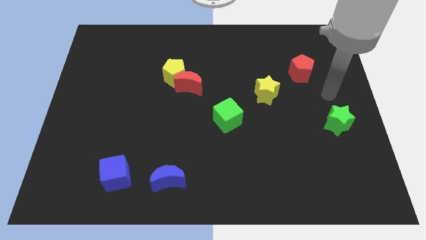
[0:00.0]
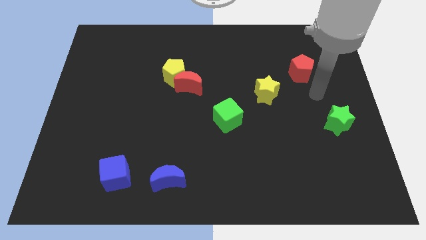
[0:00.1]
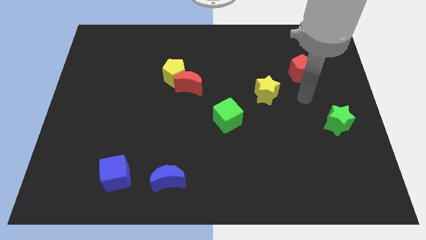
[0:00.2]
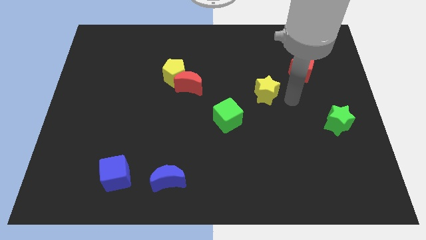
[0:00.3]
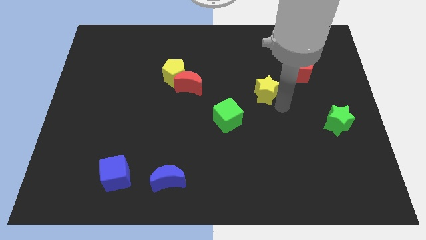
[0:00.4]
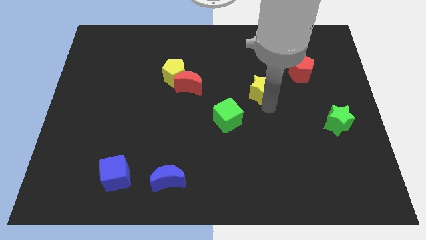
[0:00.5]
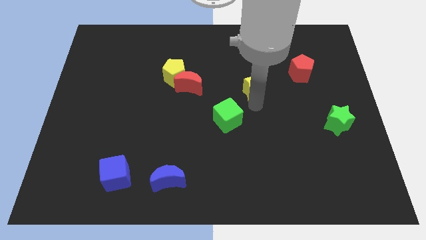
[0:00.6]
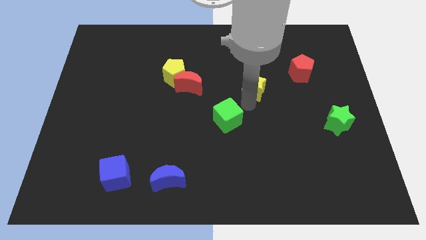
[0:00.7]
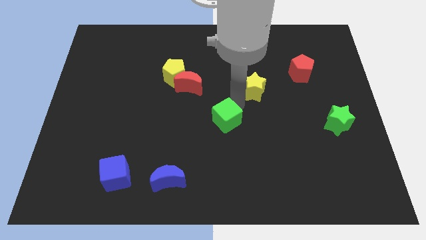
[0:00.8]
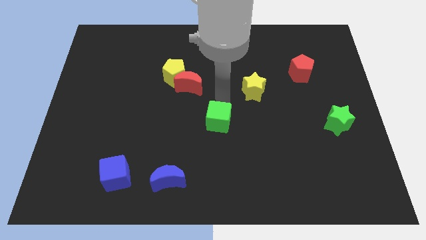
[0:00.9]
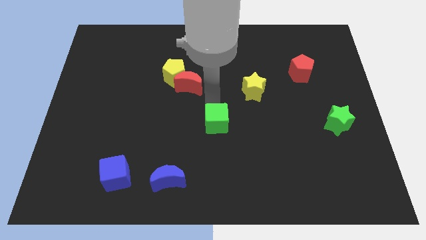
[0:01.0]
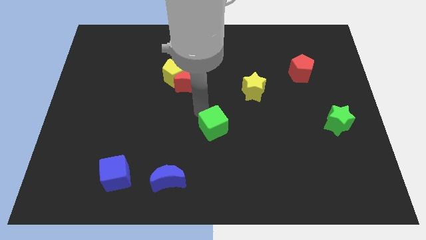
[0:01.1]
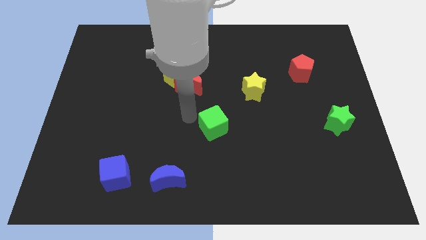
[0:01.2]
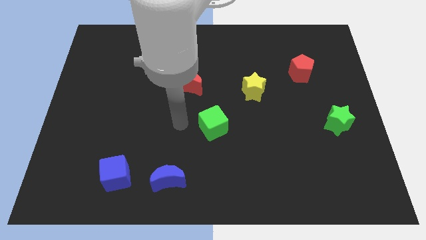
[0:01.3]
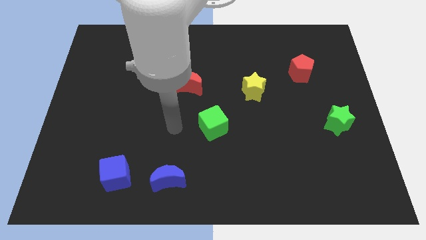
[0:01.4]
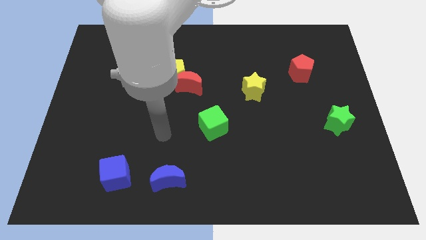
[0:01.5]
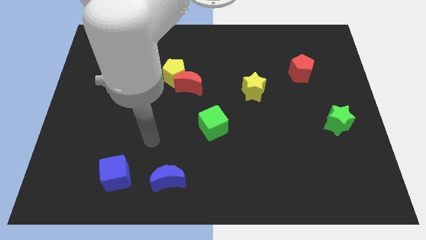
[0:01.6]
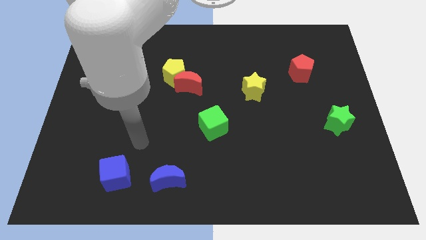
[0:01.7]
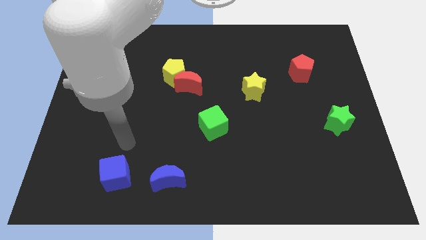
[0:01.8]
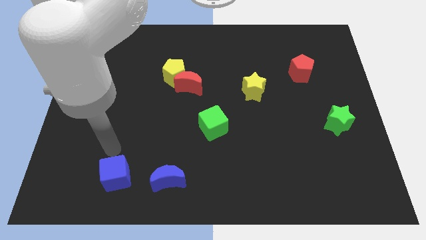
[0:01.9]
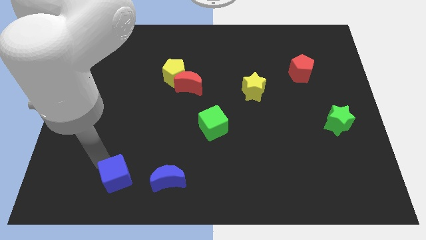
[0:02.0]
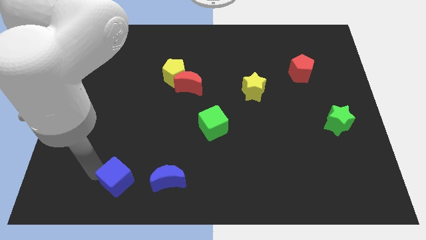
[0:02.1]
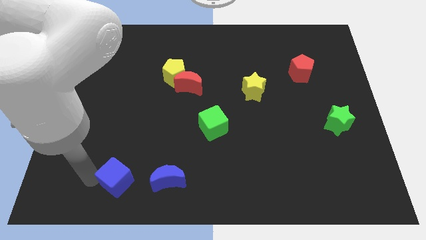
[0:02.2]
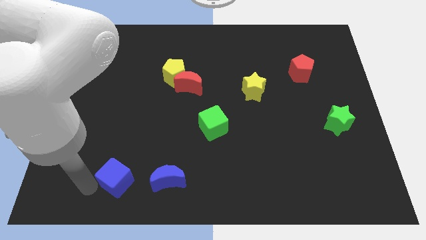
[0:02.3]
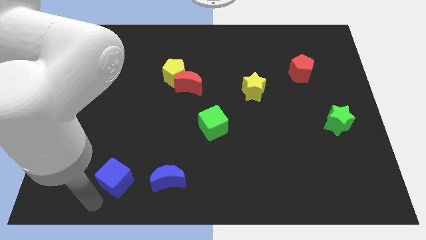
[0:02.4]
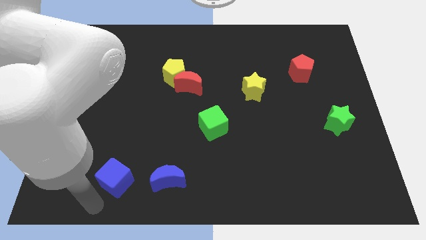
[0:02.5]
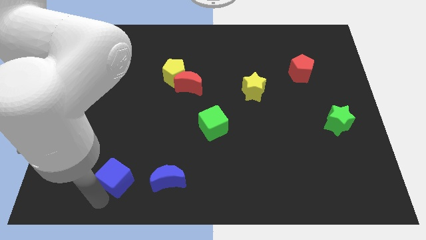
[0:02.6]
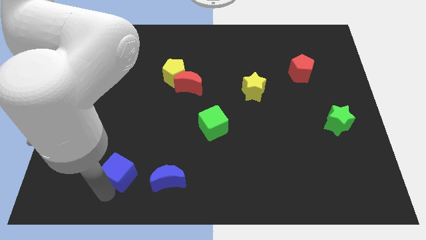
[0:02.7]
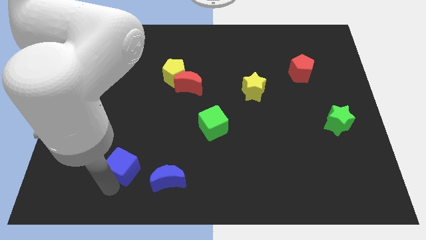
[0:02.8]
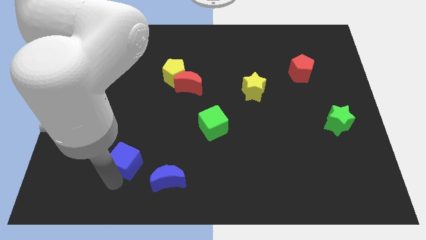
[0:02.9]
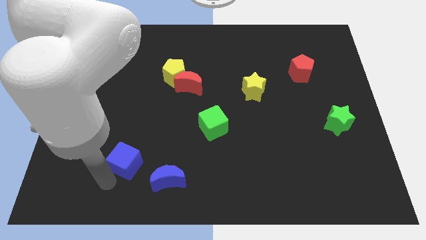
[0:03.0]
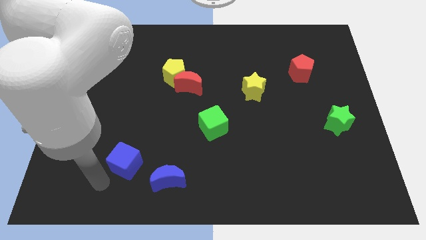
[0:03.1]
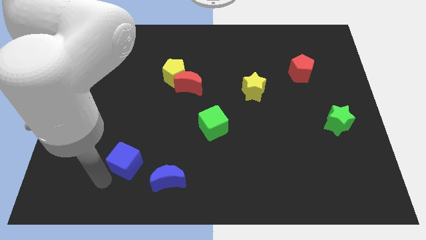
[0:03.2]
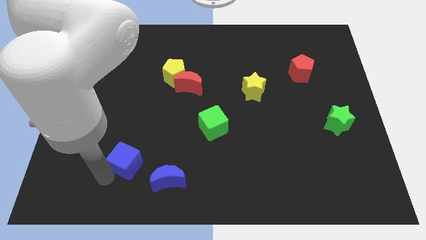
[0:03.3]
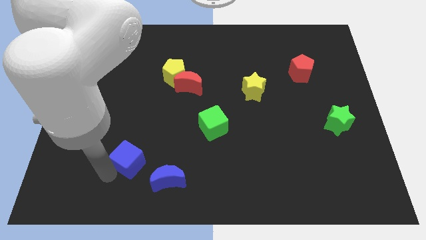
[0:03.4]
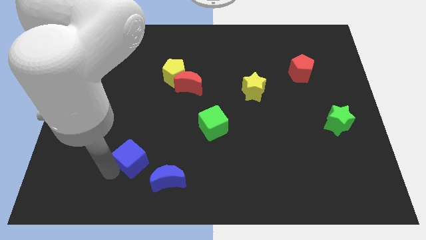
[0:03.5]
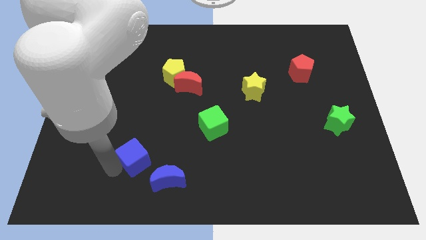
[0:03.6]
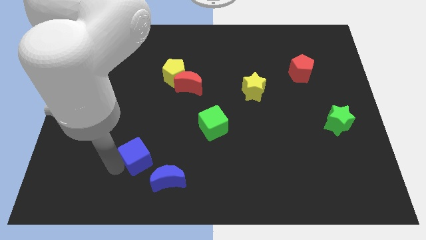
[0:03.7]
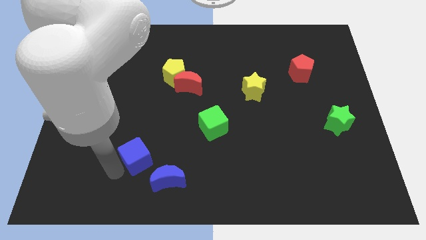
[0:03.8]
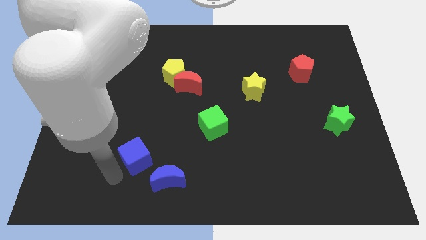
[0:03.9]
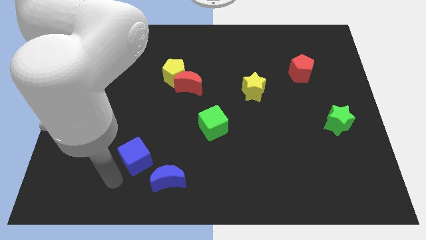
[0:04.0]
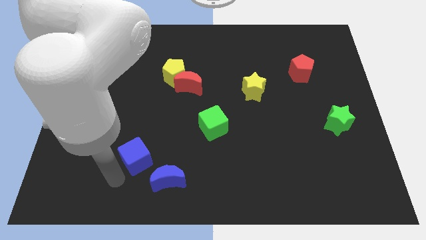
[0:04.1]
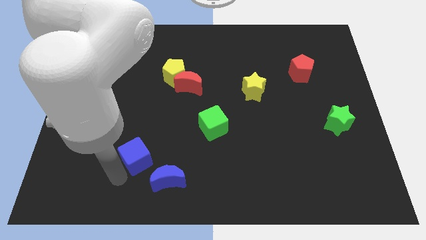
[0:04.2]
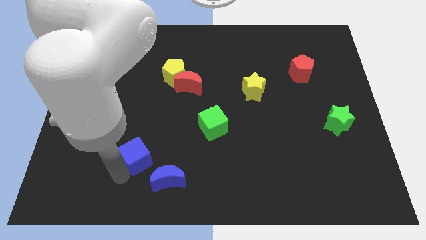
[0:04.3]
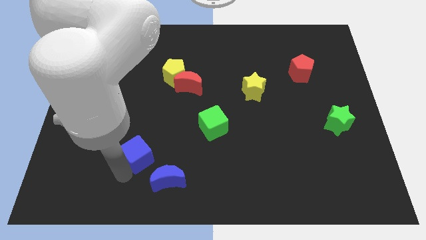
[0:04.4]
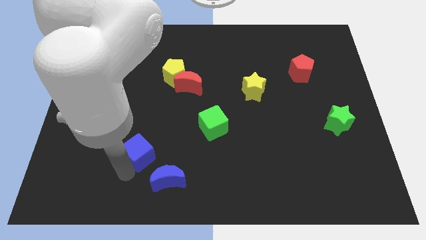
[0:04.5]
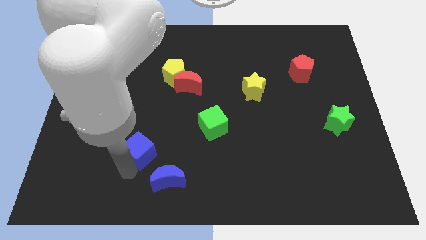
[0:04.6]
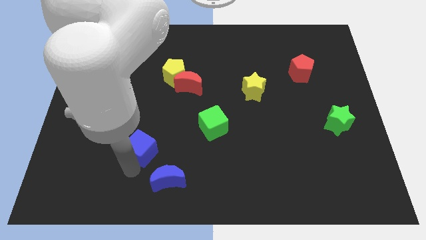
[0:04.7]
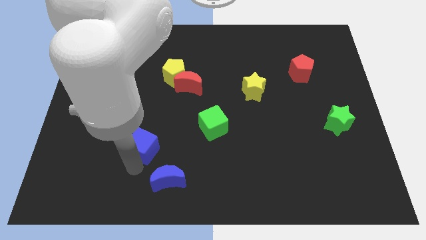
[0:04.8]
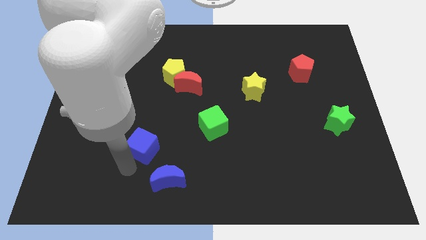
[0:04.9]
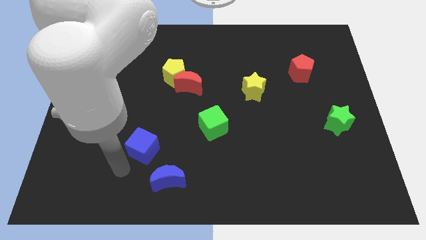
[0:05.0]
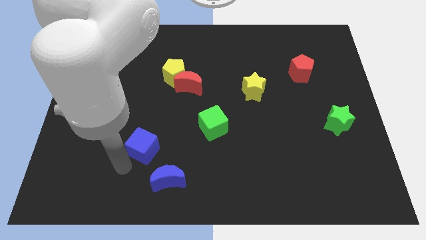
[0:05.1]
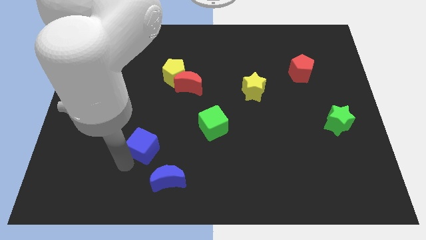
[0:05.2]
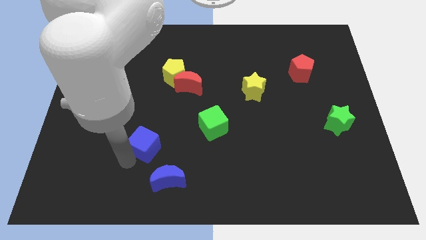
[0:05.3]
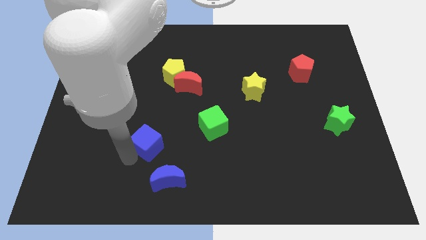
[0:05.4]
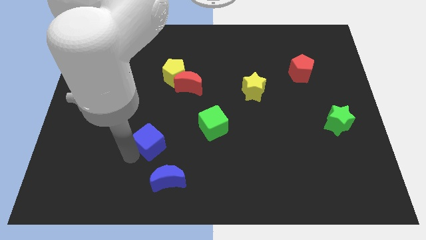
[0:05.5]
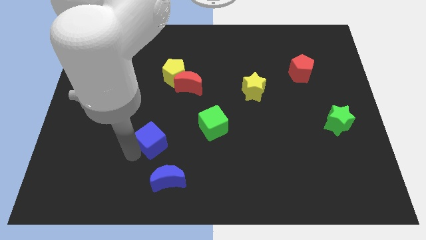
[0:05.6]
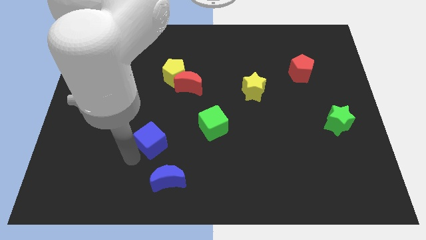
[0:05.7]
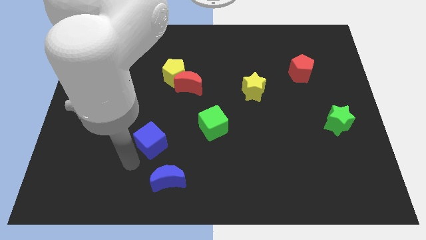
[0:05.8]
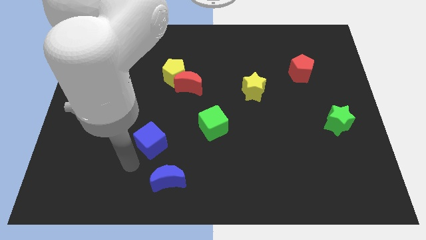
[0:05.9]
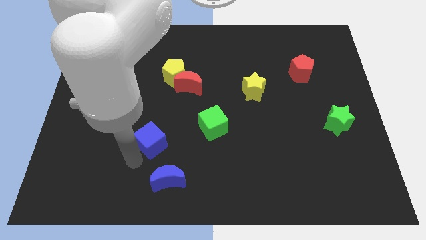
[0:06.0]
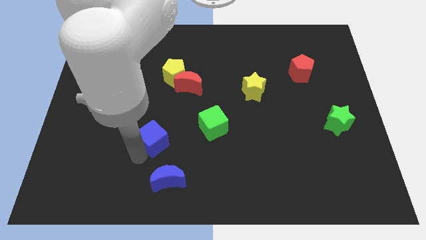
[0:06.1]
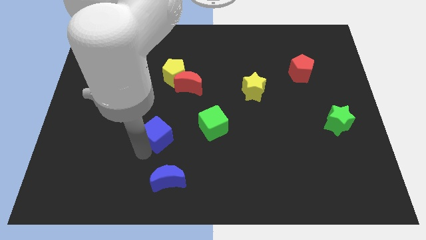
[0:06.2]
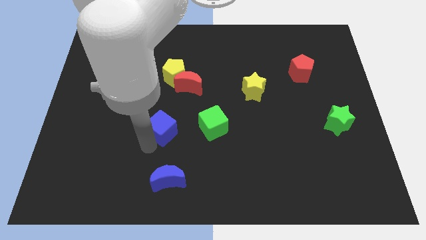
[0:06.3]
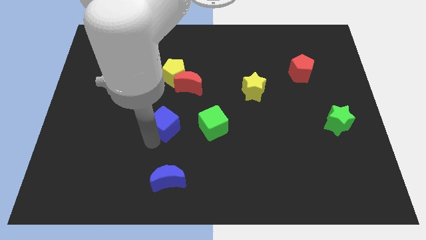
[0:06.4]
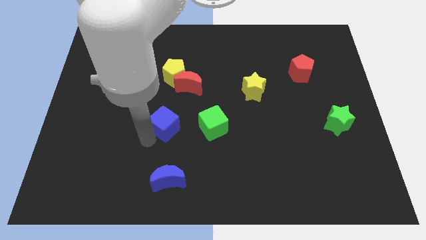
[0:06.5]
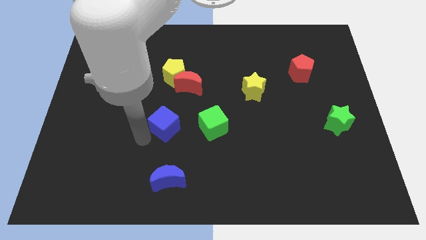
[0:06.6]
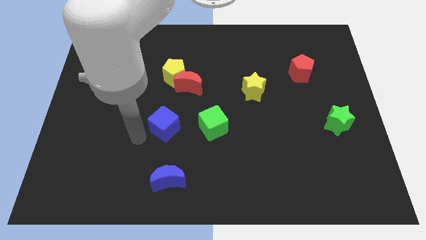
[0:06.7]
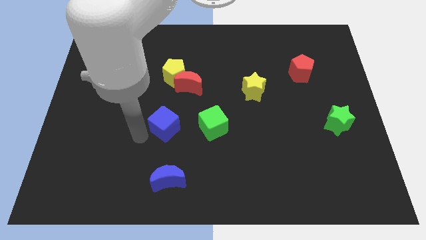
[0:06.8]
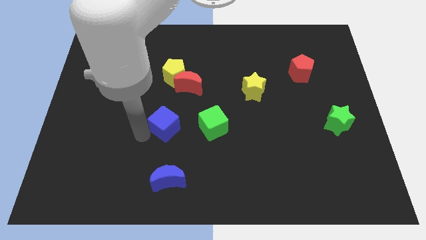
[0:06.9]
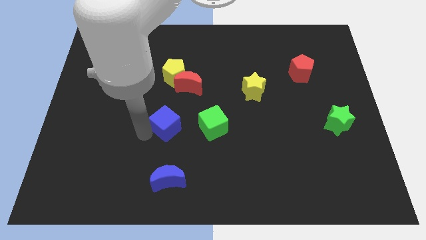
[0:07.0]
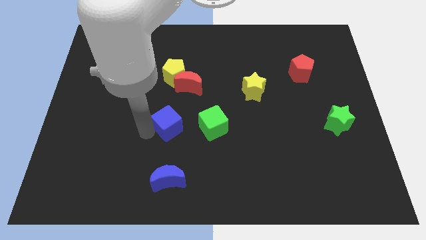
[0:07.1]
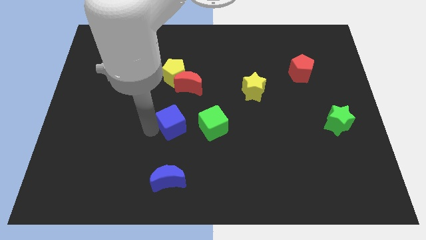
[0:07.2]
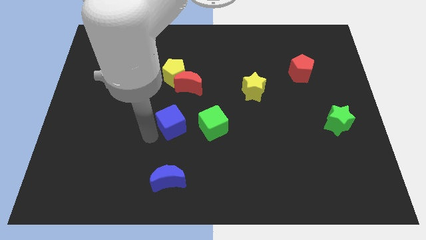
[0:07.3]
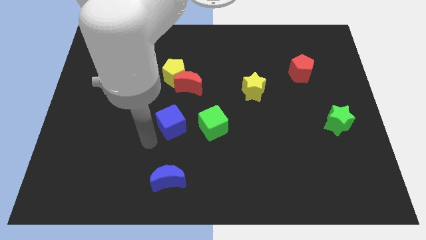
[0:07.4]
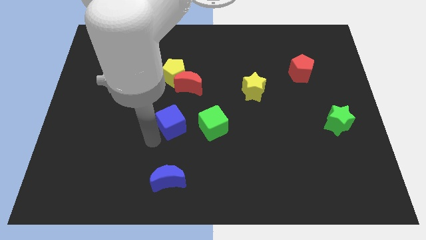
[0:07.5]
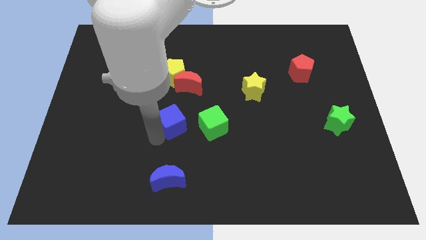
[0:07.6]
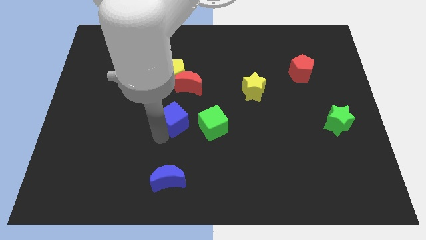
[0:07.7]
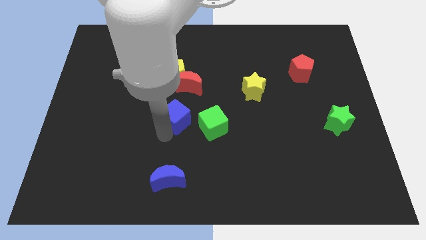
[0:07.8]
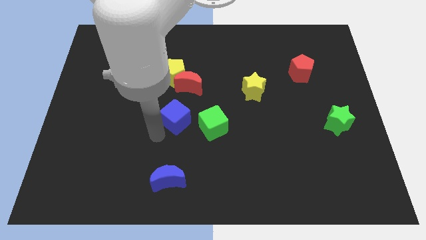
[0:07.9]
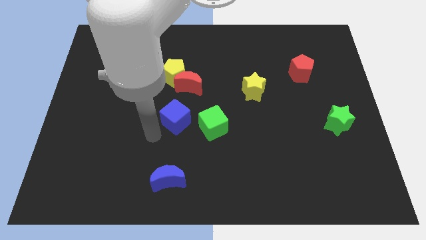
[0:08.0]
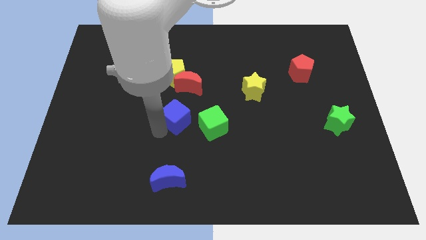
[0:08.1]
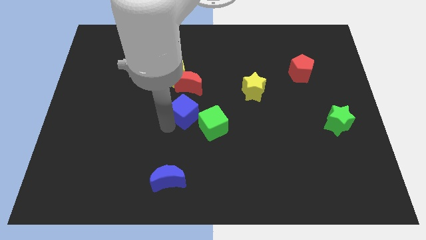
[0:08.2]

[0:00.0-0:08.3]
move the blue cube upwards and to the right diagonally
